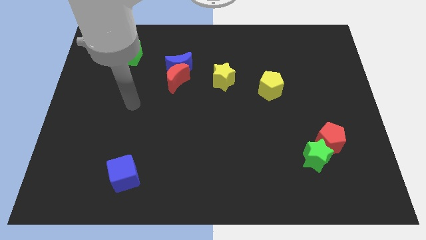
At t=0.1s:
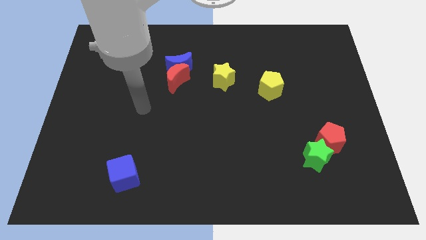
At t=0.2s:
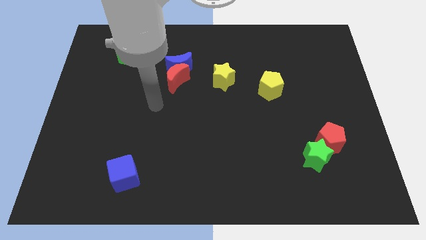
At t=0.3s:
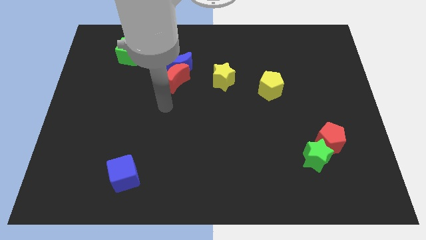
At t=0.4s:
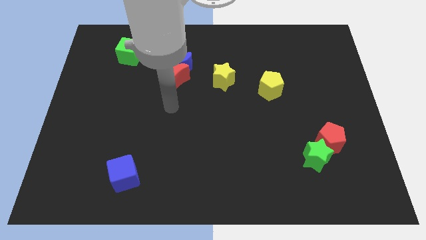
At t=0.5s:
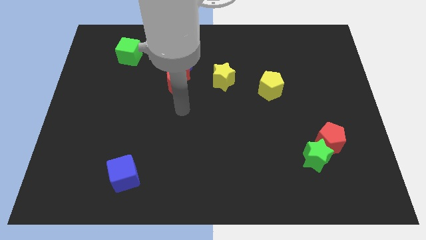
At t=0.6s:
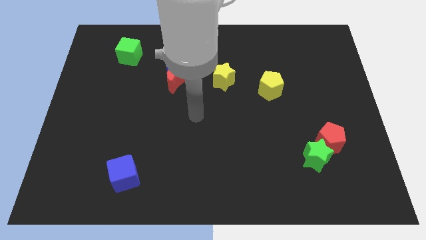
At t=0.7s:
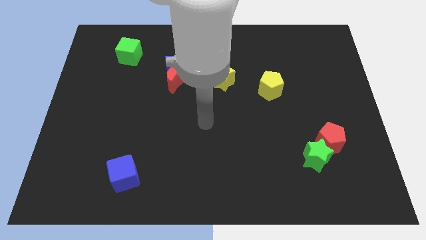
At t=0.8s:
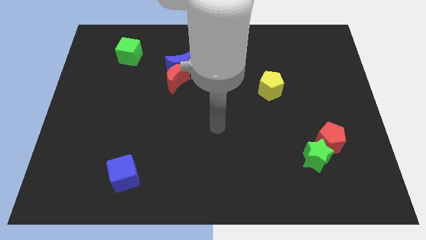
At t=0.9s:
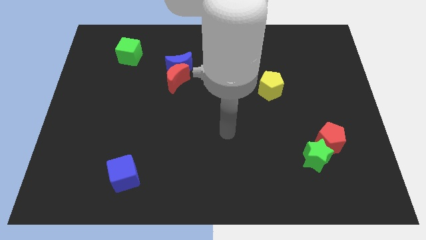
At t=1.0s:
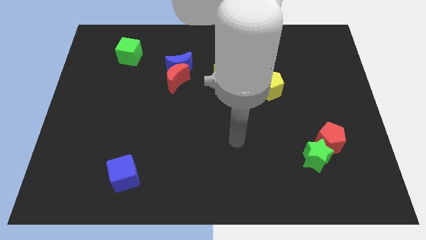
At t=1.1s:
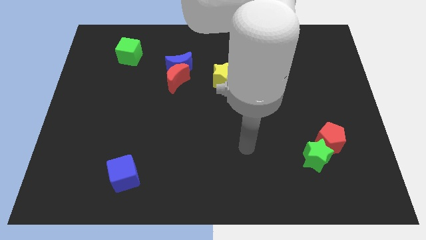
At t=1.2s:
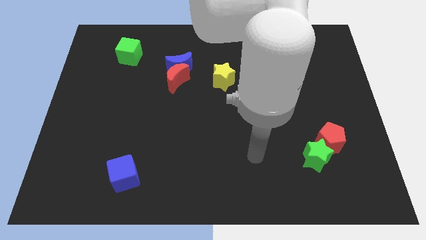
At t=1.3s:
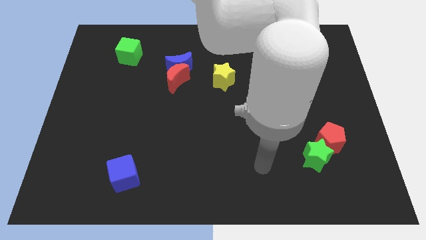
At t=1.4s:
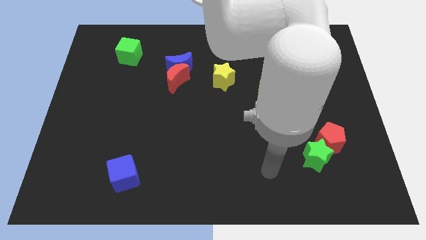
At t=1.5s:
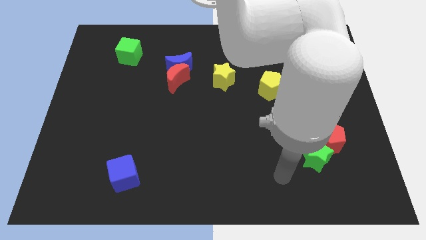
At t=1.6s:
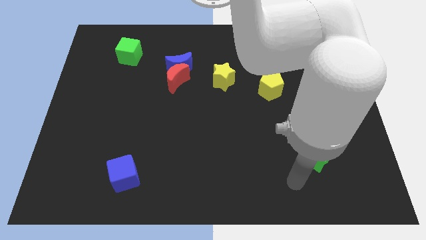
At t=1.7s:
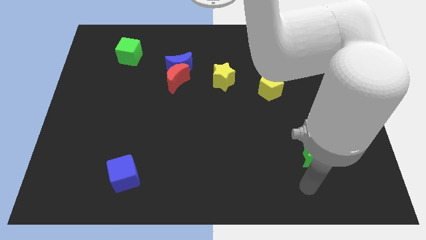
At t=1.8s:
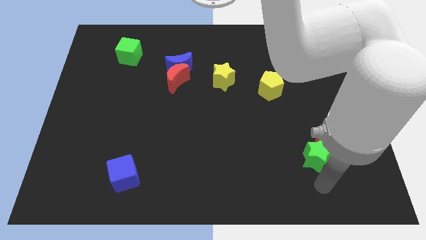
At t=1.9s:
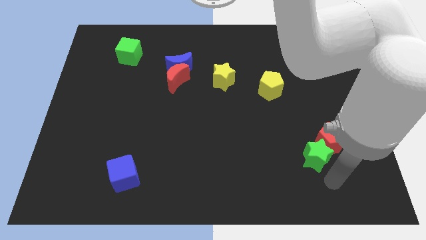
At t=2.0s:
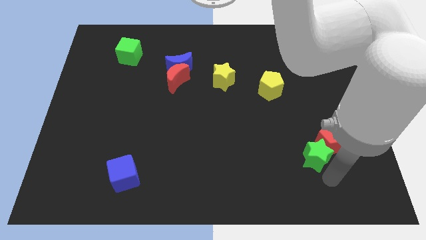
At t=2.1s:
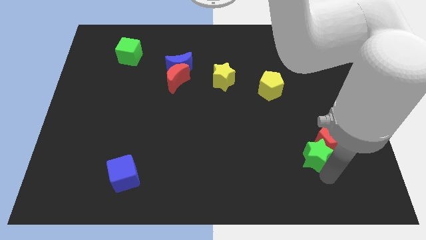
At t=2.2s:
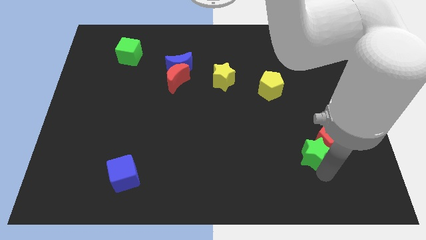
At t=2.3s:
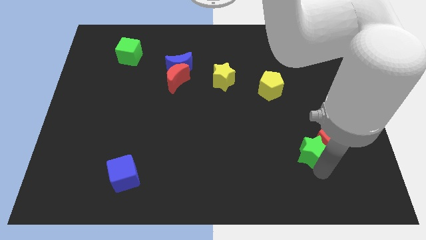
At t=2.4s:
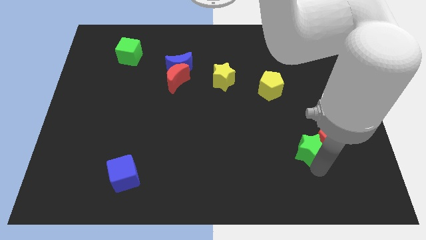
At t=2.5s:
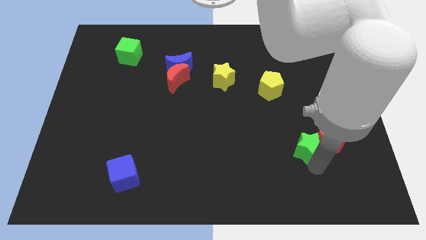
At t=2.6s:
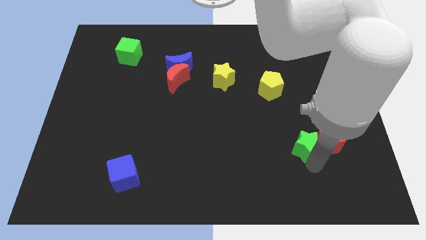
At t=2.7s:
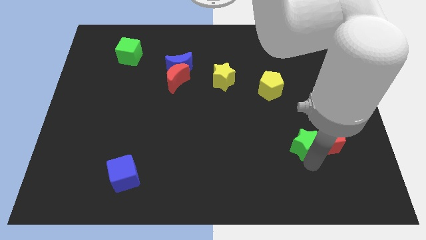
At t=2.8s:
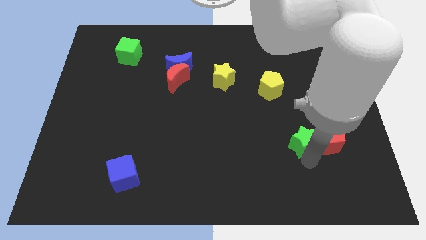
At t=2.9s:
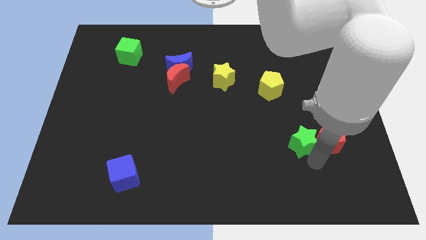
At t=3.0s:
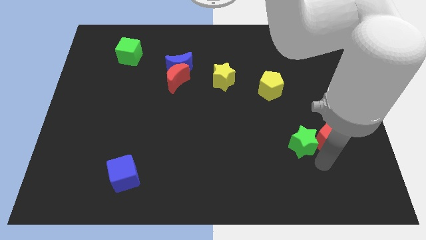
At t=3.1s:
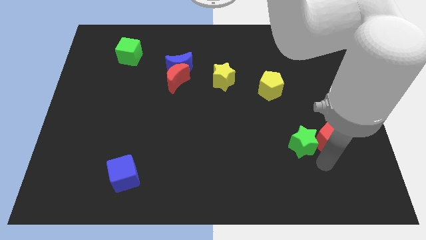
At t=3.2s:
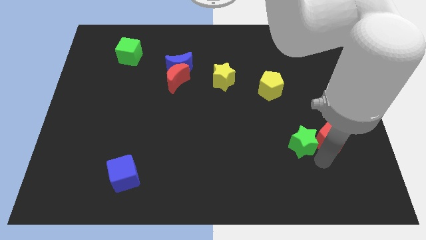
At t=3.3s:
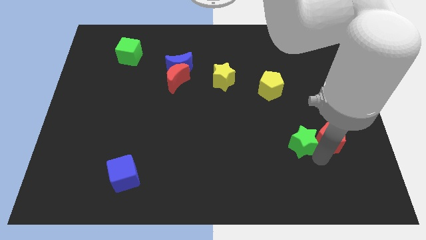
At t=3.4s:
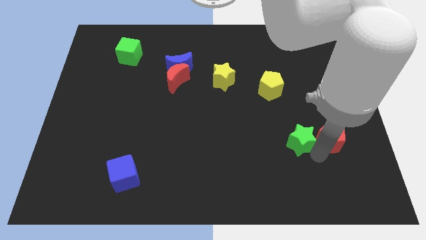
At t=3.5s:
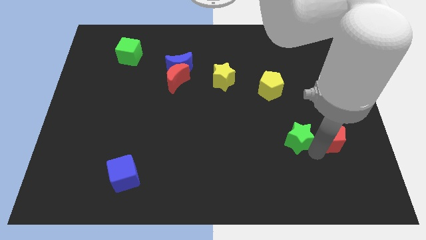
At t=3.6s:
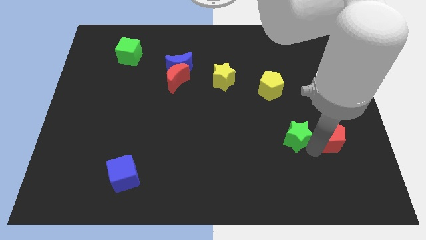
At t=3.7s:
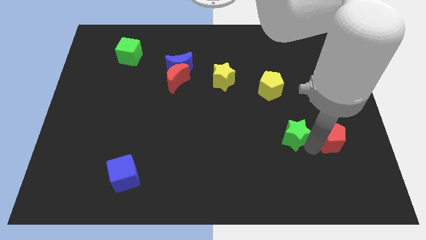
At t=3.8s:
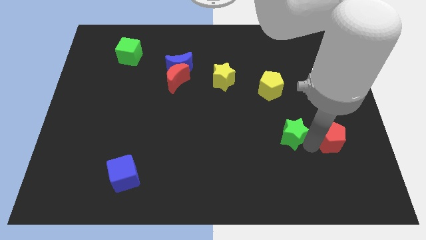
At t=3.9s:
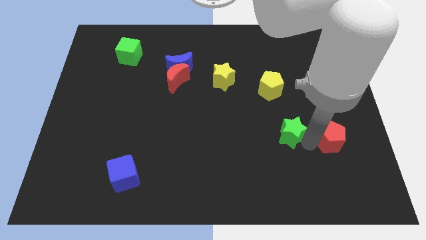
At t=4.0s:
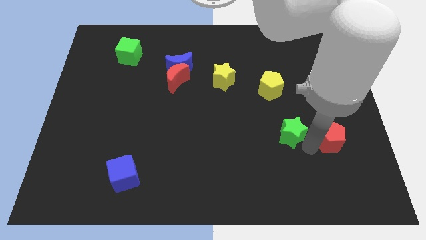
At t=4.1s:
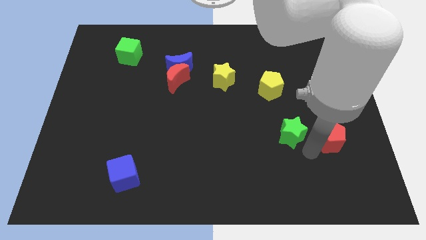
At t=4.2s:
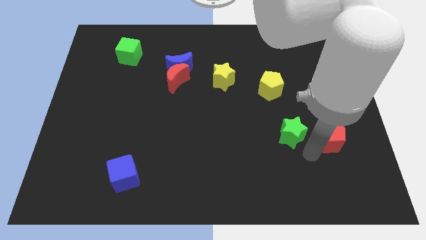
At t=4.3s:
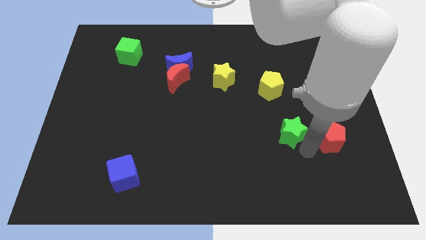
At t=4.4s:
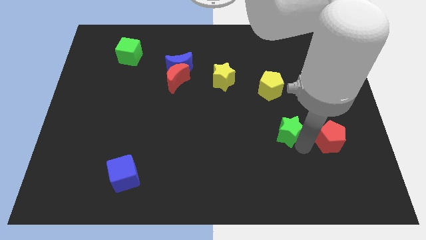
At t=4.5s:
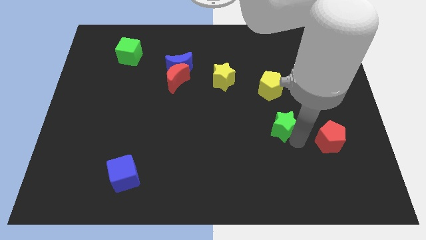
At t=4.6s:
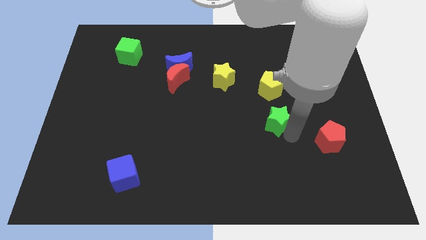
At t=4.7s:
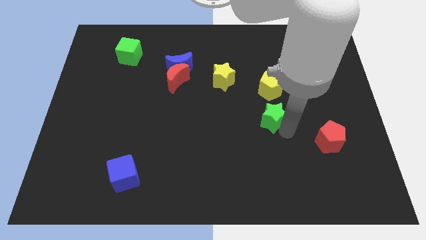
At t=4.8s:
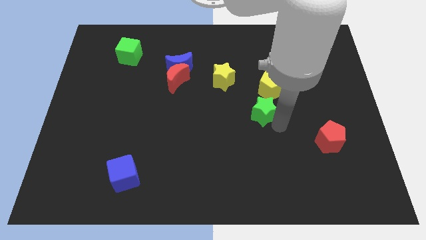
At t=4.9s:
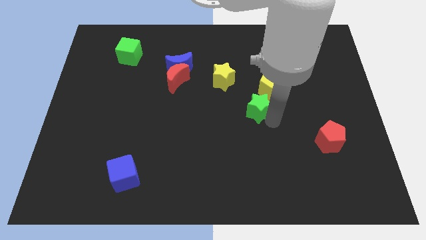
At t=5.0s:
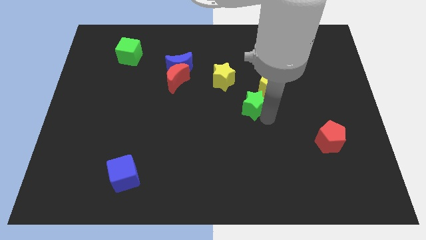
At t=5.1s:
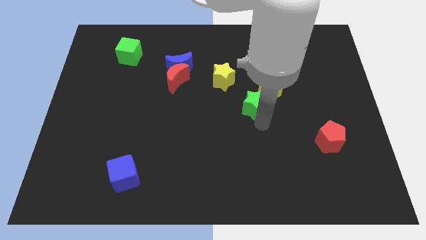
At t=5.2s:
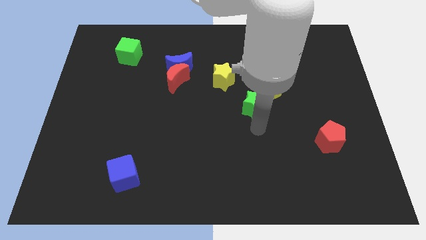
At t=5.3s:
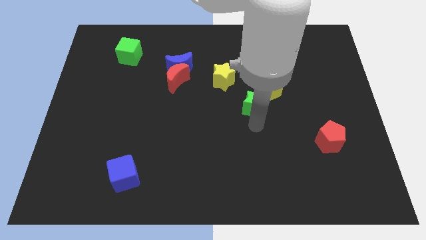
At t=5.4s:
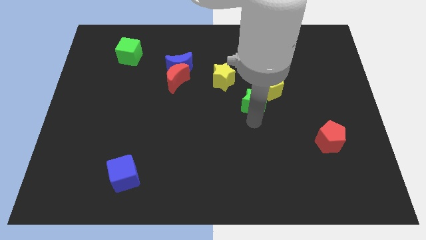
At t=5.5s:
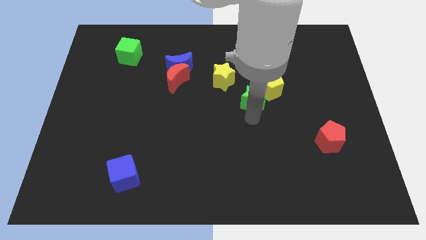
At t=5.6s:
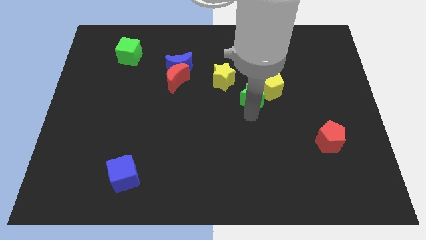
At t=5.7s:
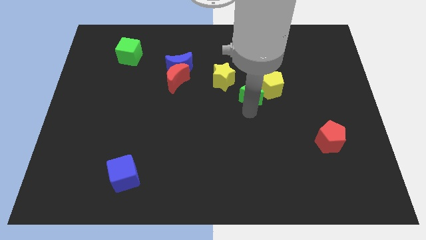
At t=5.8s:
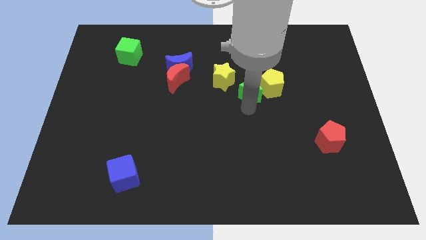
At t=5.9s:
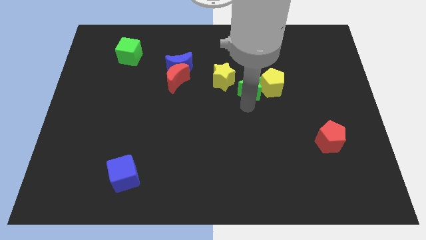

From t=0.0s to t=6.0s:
push the green star to the top left side of the yellow pentagon

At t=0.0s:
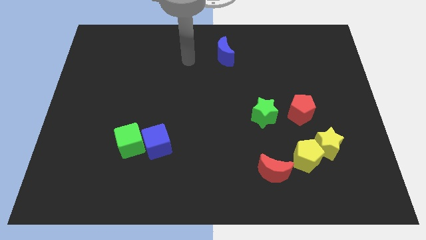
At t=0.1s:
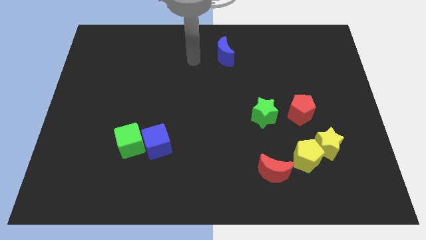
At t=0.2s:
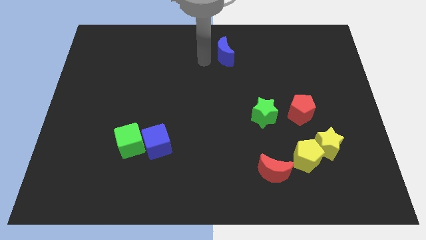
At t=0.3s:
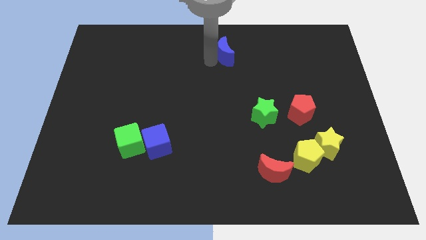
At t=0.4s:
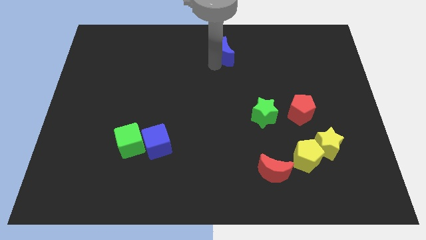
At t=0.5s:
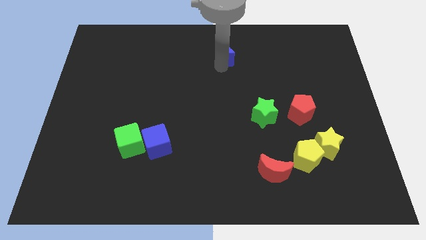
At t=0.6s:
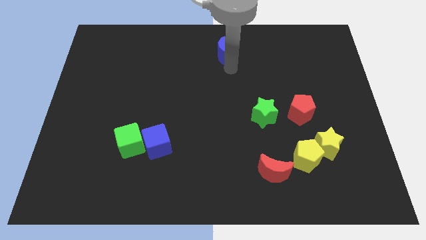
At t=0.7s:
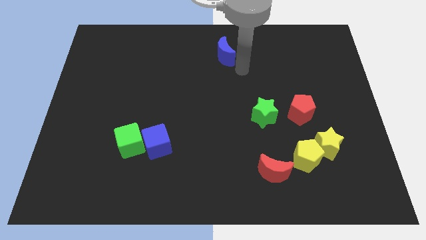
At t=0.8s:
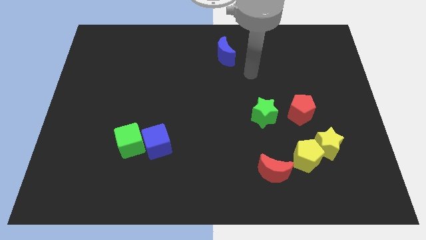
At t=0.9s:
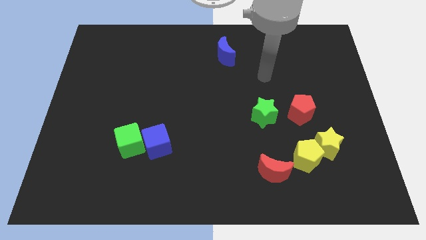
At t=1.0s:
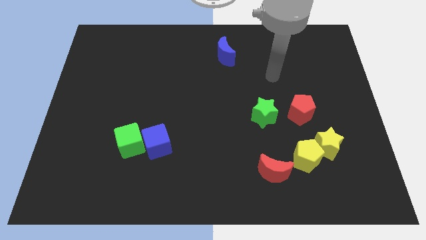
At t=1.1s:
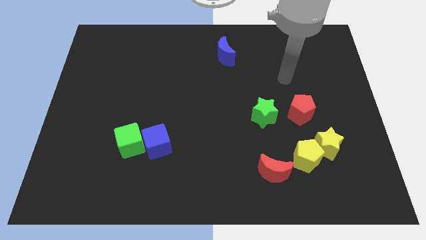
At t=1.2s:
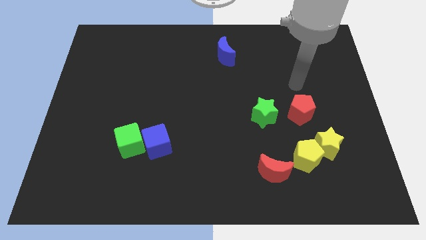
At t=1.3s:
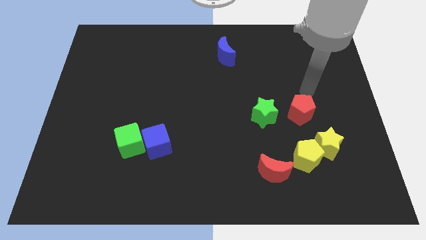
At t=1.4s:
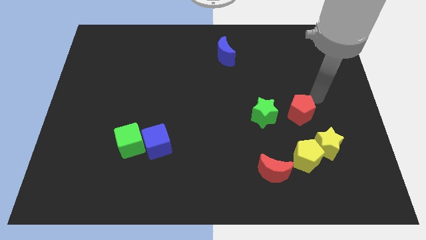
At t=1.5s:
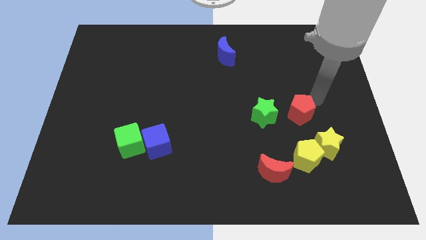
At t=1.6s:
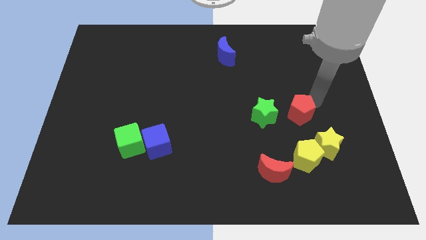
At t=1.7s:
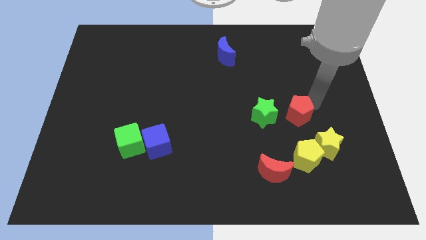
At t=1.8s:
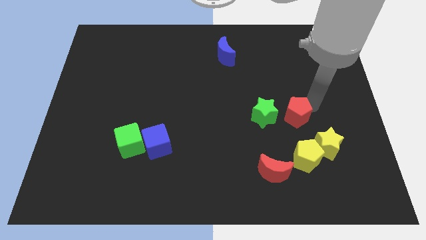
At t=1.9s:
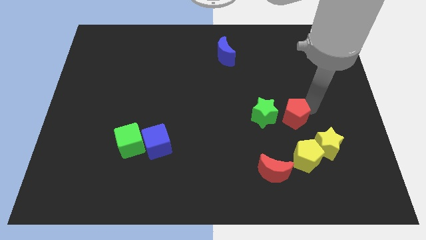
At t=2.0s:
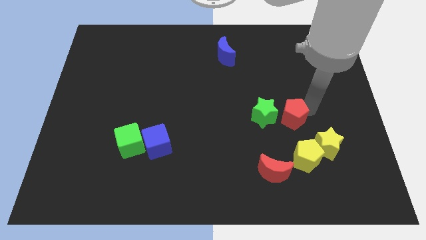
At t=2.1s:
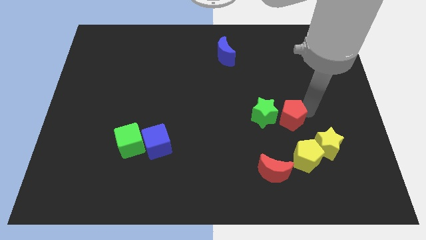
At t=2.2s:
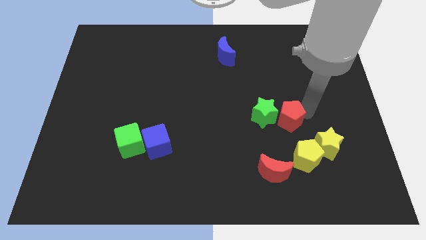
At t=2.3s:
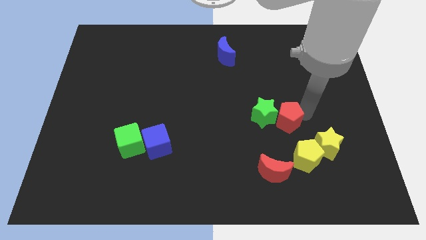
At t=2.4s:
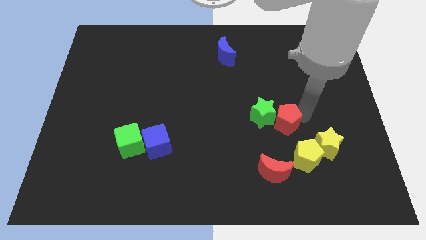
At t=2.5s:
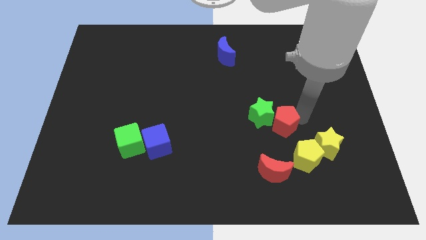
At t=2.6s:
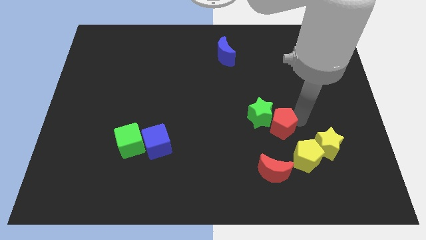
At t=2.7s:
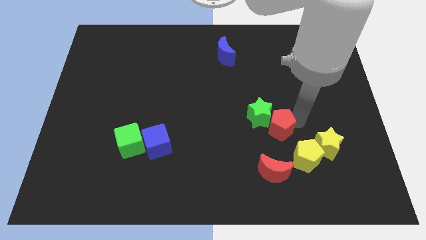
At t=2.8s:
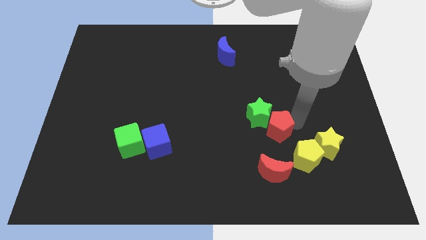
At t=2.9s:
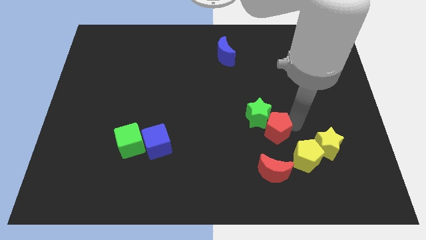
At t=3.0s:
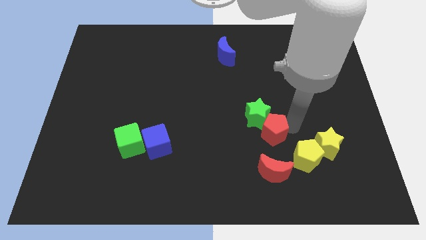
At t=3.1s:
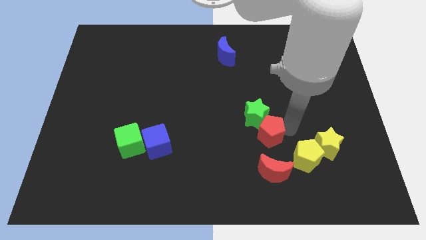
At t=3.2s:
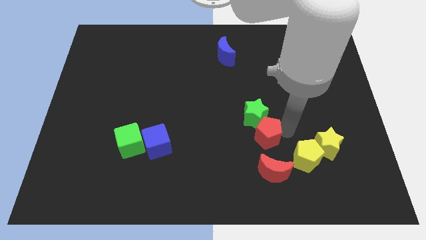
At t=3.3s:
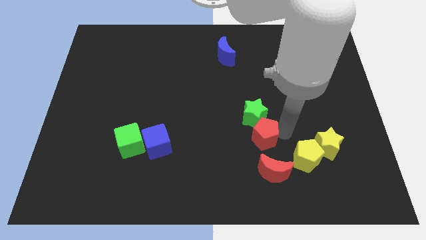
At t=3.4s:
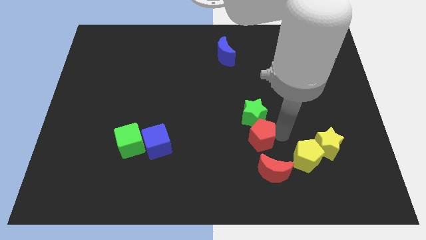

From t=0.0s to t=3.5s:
push the red pentagon to the top left of the red moon
